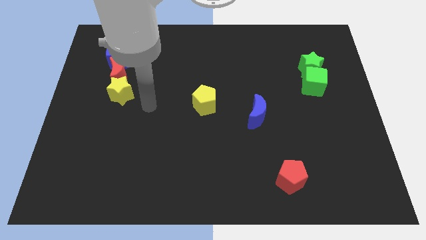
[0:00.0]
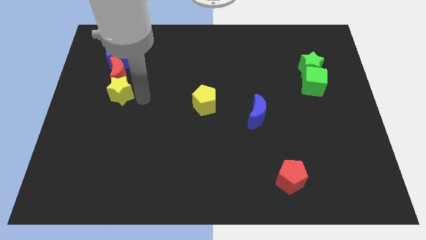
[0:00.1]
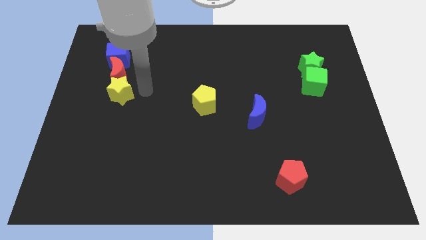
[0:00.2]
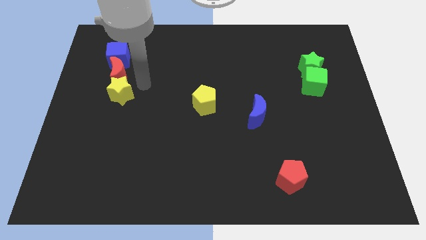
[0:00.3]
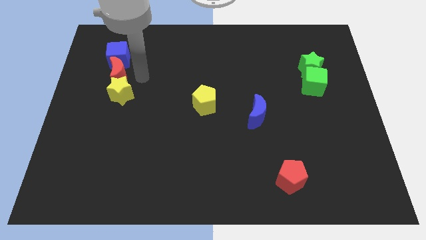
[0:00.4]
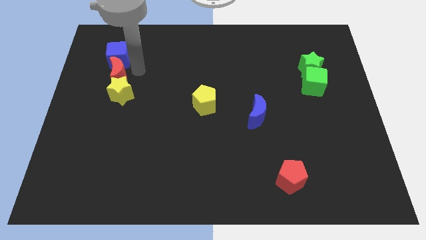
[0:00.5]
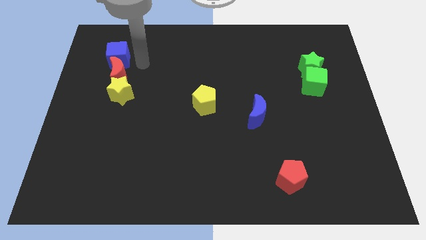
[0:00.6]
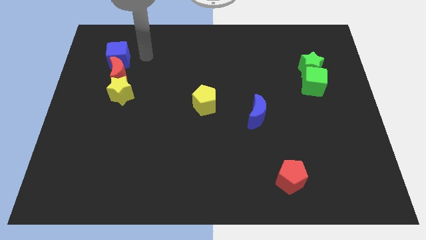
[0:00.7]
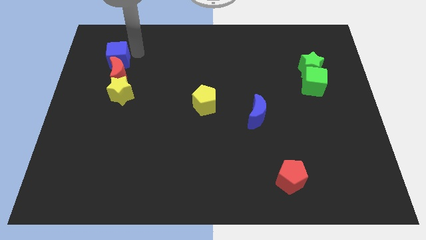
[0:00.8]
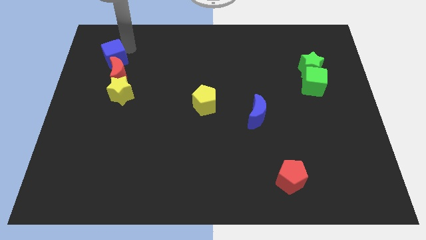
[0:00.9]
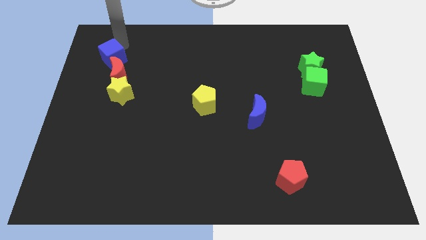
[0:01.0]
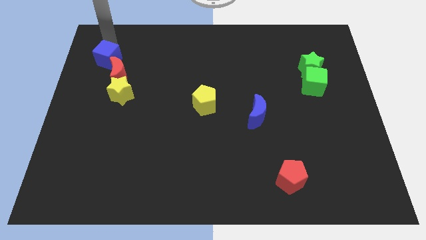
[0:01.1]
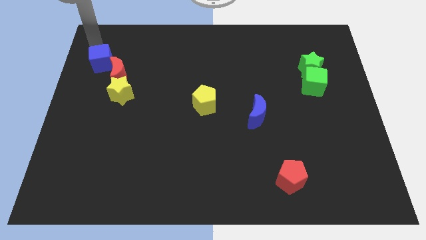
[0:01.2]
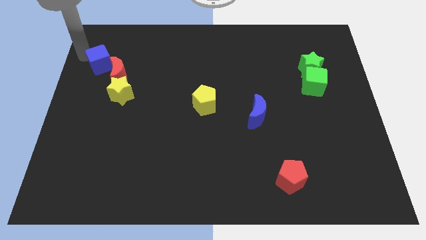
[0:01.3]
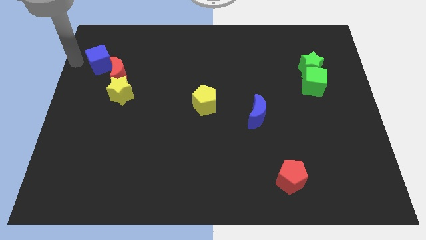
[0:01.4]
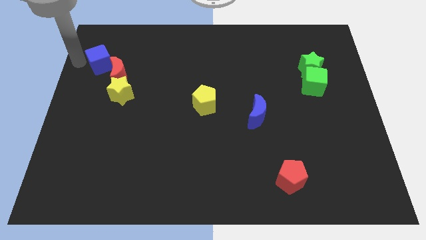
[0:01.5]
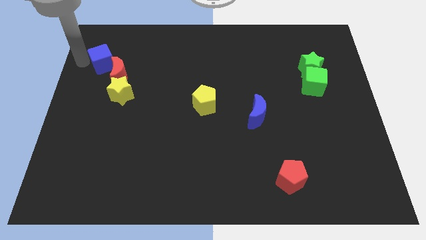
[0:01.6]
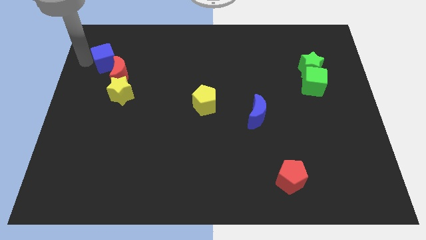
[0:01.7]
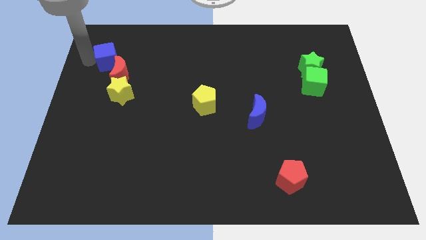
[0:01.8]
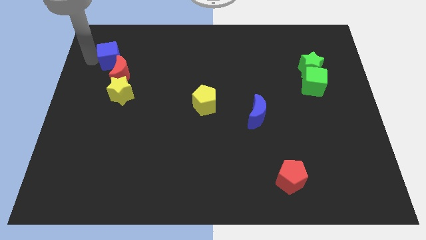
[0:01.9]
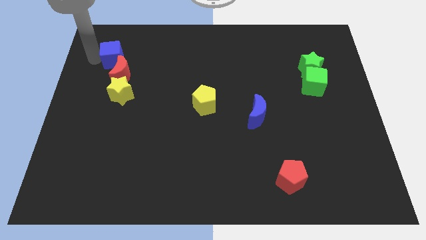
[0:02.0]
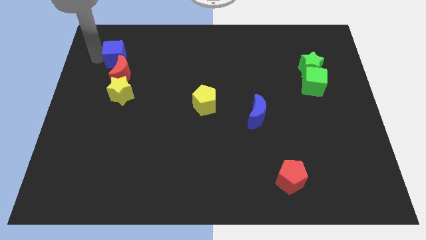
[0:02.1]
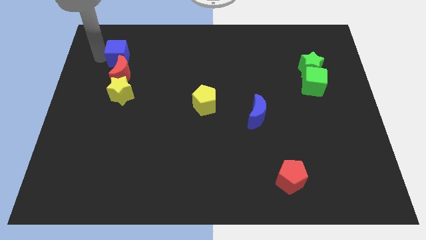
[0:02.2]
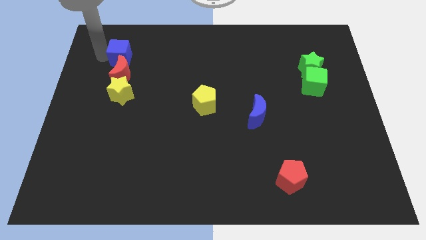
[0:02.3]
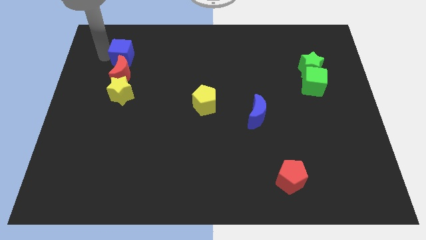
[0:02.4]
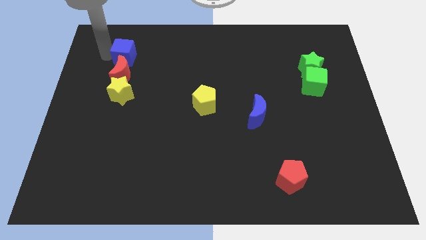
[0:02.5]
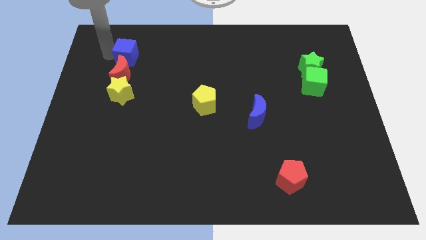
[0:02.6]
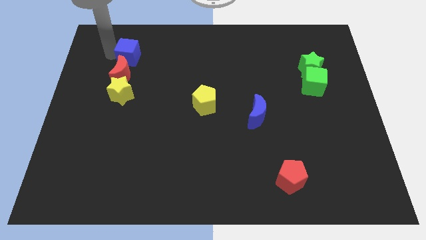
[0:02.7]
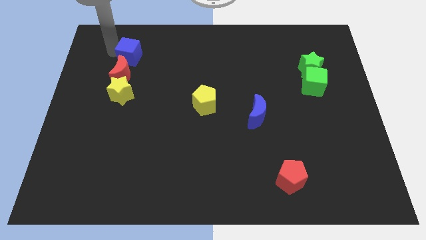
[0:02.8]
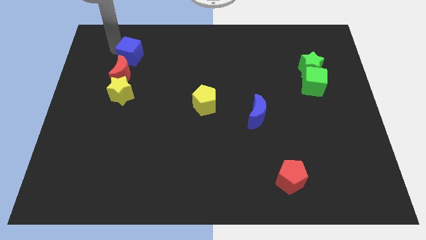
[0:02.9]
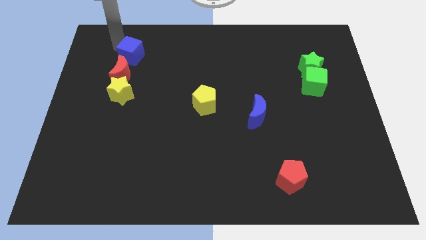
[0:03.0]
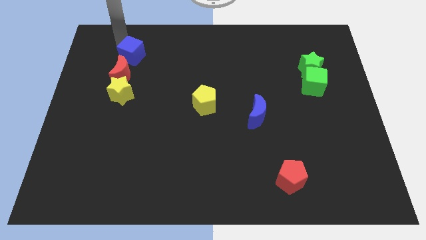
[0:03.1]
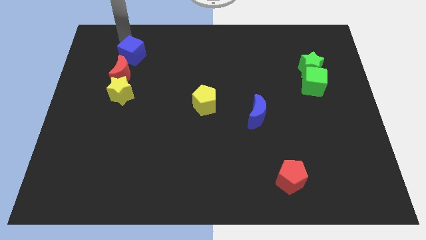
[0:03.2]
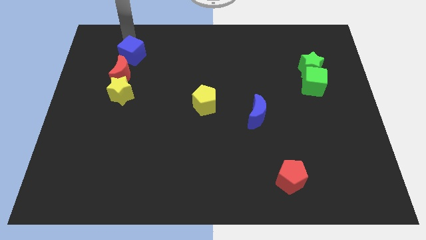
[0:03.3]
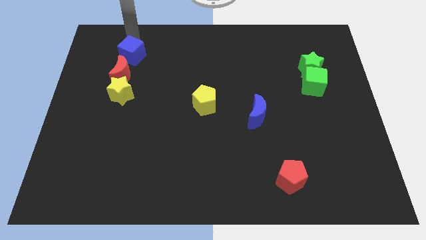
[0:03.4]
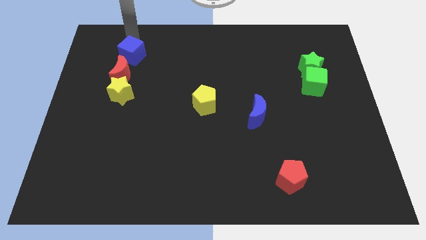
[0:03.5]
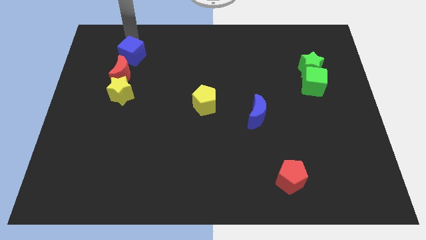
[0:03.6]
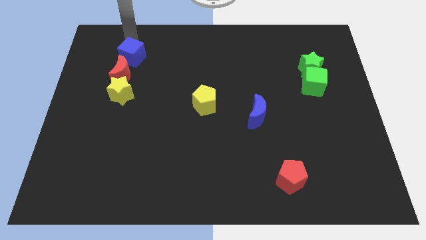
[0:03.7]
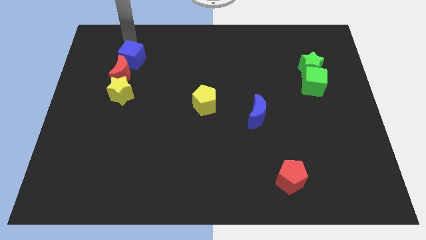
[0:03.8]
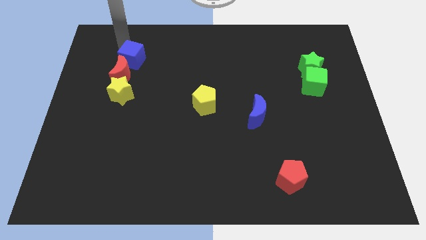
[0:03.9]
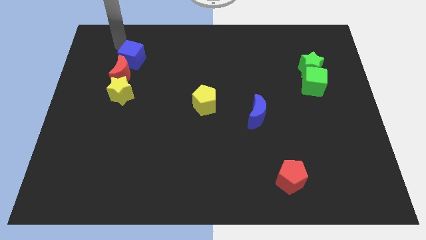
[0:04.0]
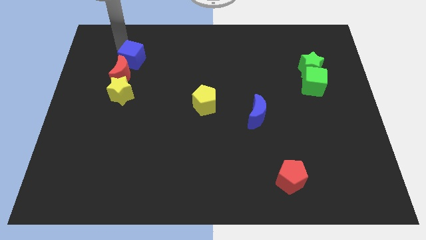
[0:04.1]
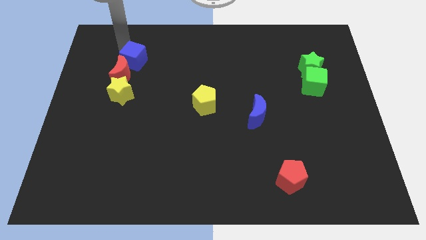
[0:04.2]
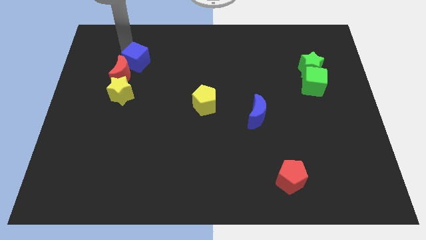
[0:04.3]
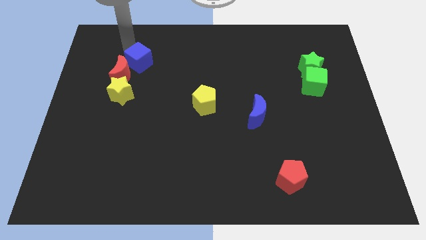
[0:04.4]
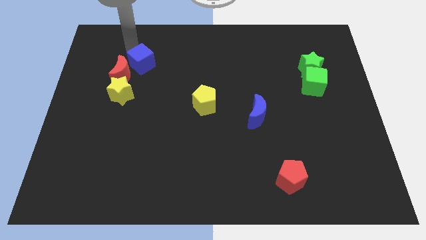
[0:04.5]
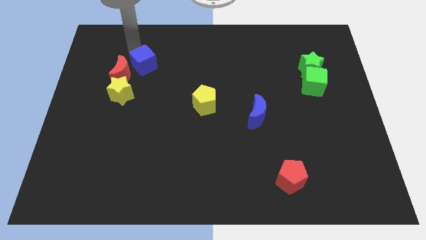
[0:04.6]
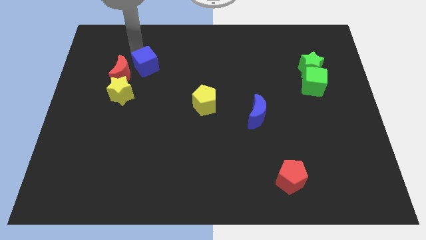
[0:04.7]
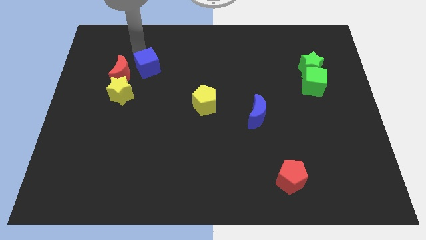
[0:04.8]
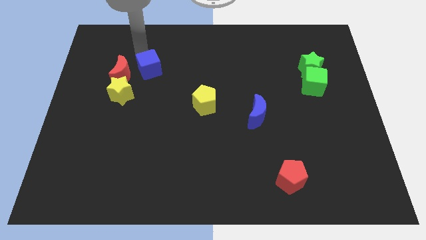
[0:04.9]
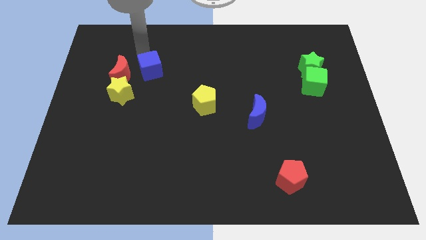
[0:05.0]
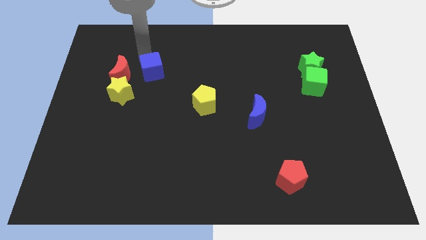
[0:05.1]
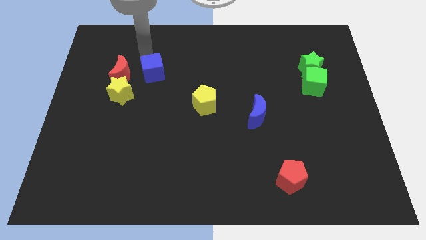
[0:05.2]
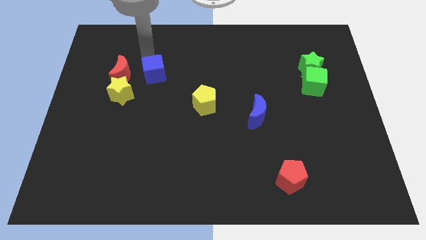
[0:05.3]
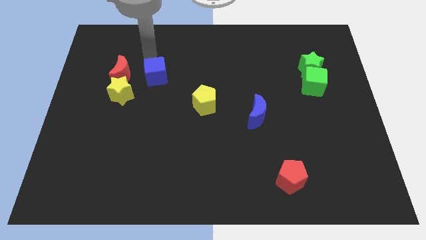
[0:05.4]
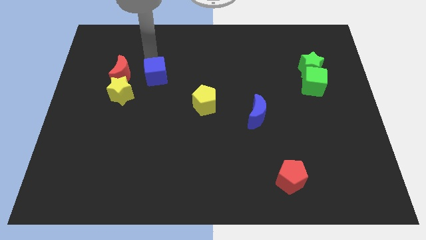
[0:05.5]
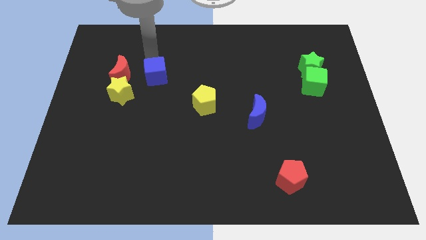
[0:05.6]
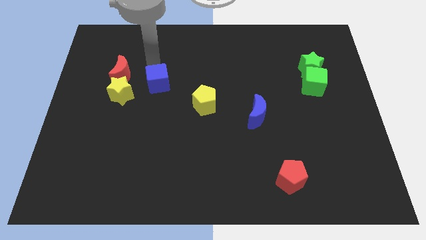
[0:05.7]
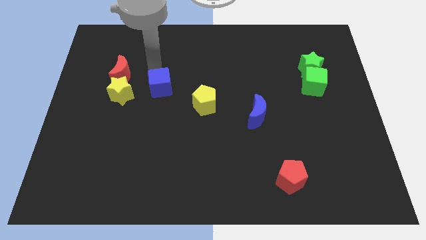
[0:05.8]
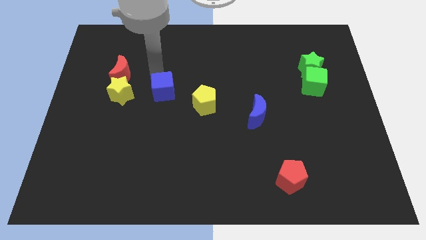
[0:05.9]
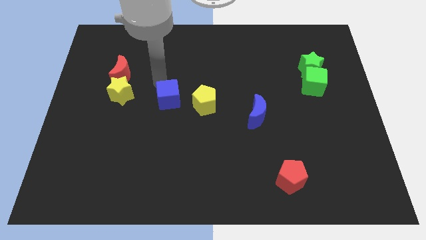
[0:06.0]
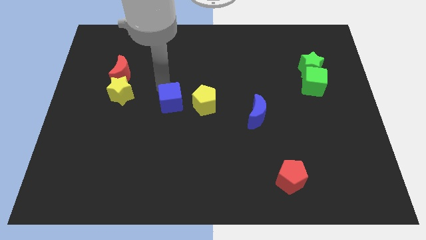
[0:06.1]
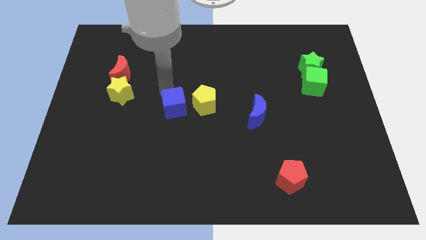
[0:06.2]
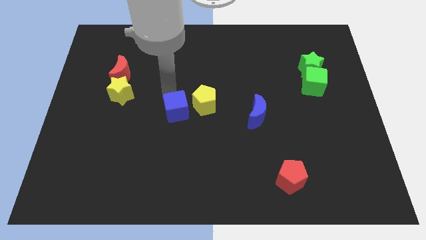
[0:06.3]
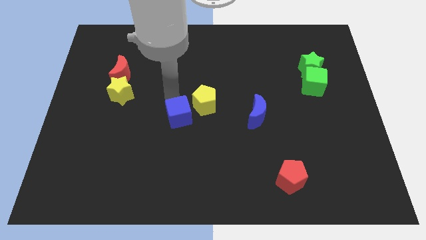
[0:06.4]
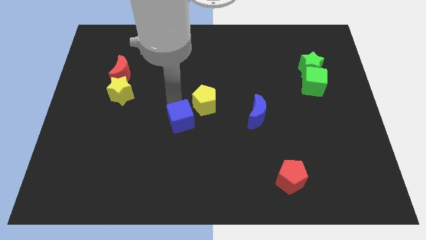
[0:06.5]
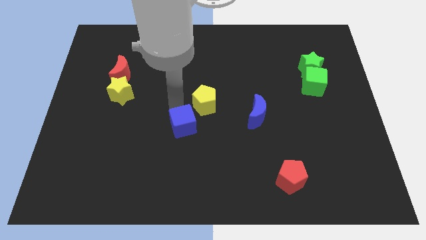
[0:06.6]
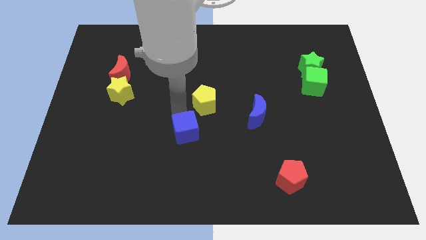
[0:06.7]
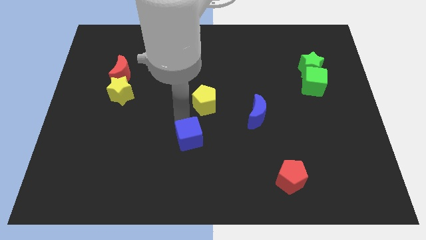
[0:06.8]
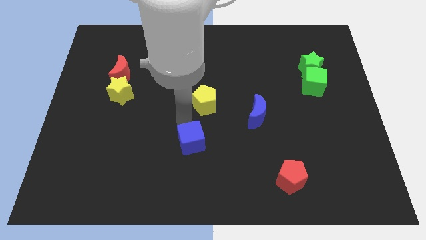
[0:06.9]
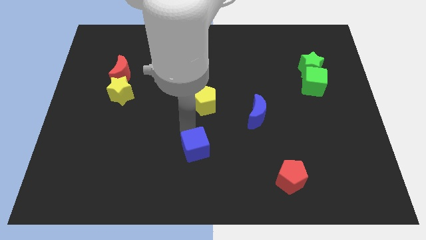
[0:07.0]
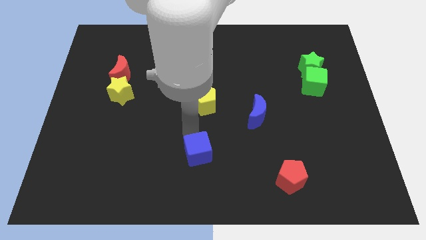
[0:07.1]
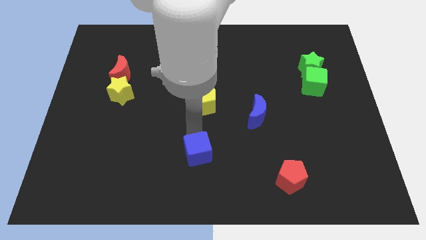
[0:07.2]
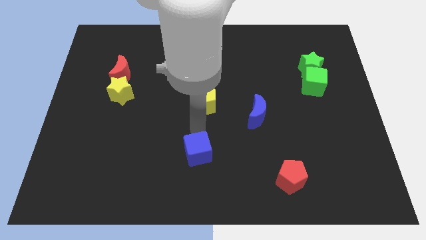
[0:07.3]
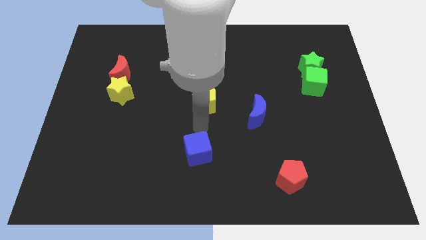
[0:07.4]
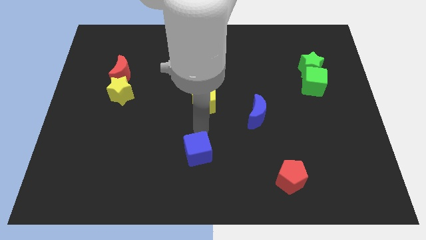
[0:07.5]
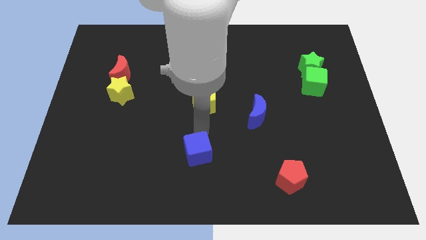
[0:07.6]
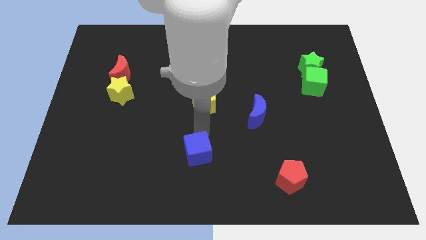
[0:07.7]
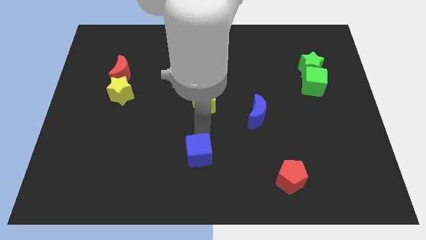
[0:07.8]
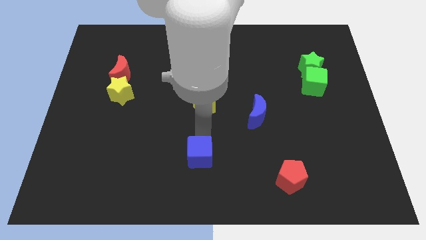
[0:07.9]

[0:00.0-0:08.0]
push the blue cube to the bottom
